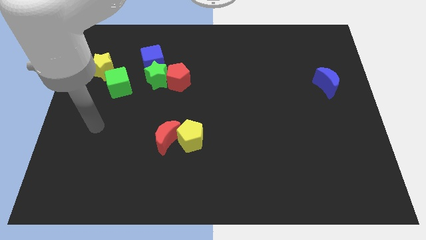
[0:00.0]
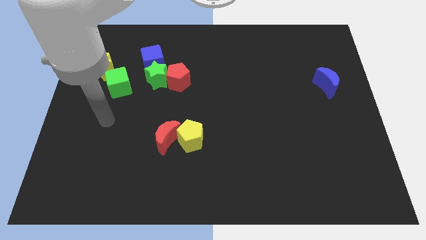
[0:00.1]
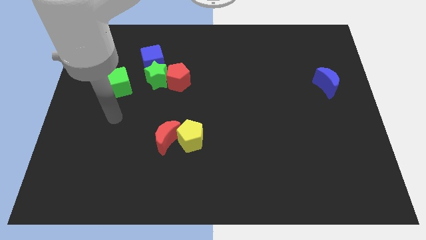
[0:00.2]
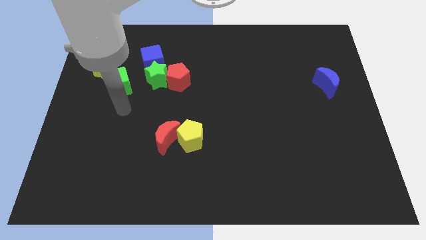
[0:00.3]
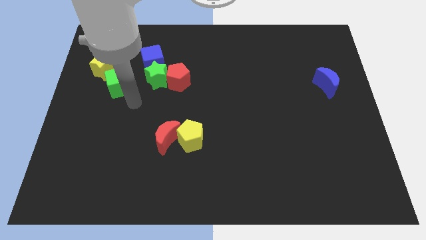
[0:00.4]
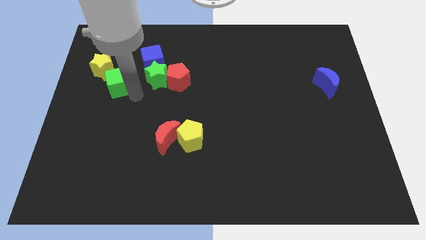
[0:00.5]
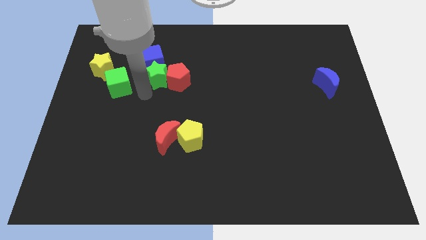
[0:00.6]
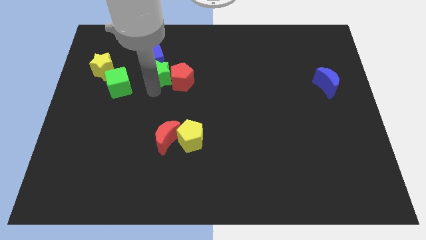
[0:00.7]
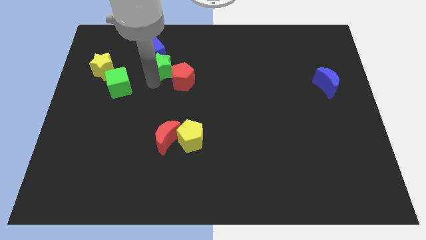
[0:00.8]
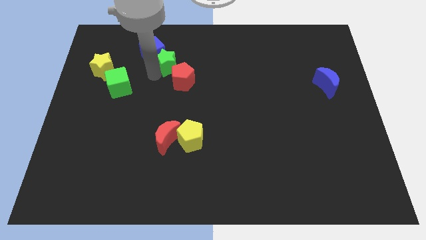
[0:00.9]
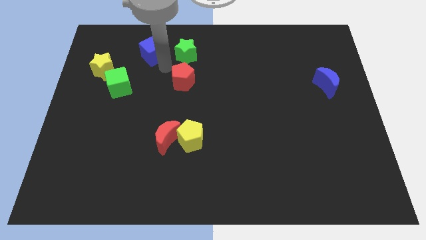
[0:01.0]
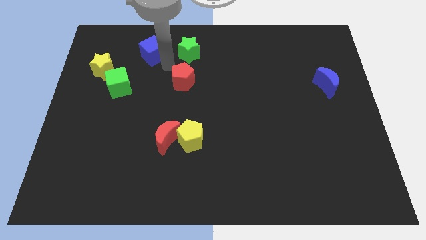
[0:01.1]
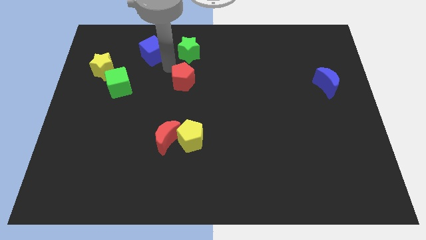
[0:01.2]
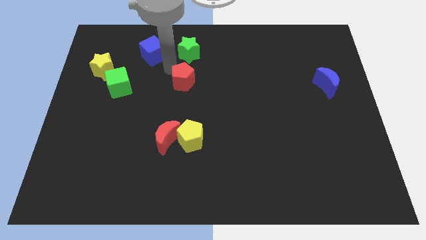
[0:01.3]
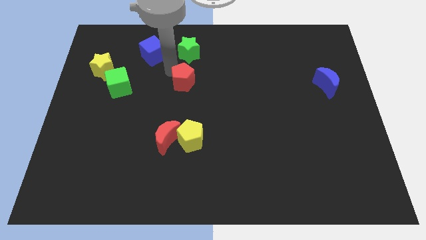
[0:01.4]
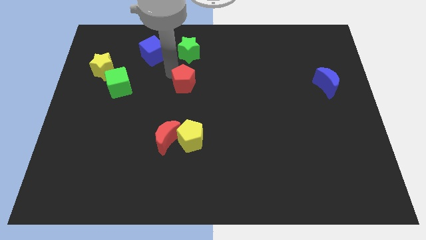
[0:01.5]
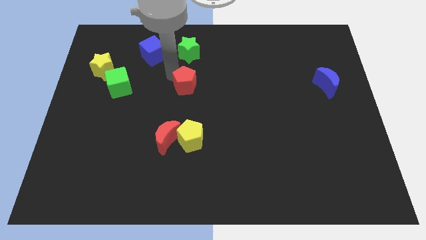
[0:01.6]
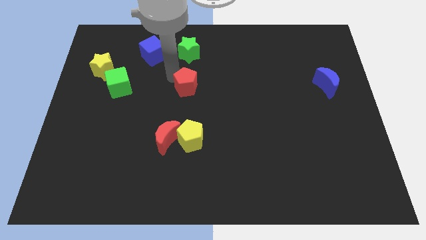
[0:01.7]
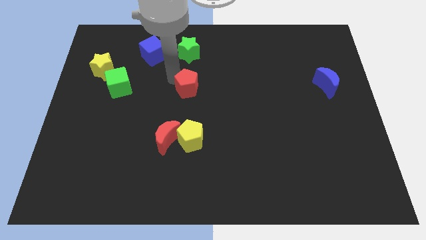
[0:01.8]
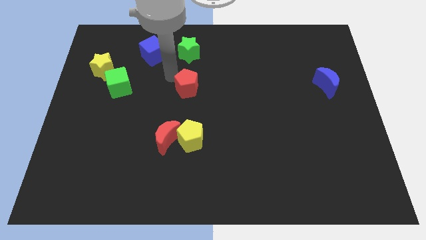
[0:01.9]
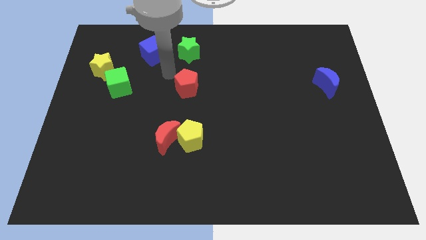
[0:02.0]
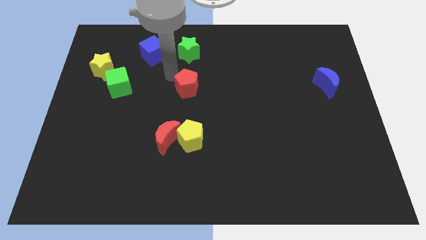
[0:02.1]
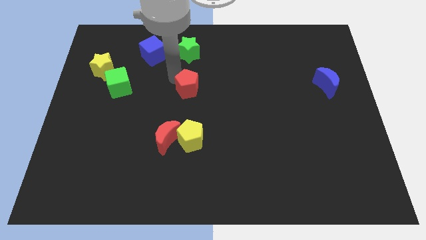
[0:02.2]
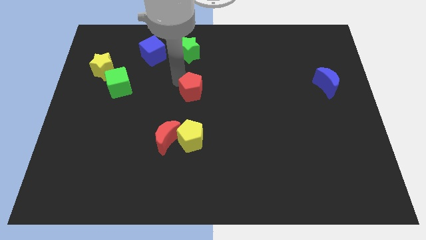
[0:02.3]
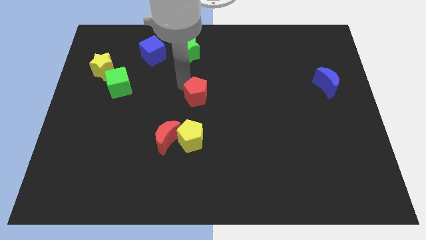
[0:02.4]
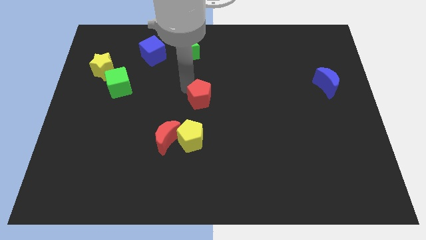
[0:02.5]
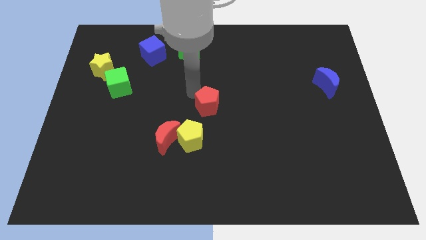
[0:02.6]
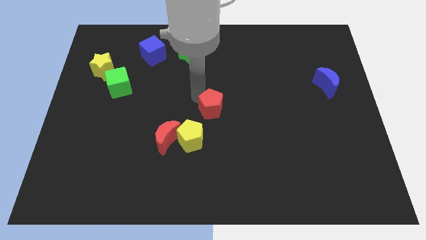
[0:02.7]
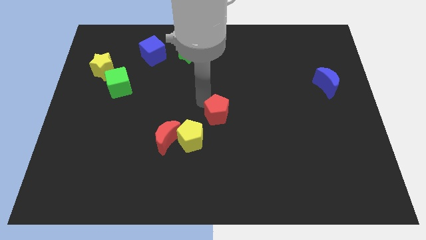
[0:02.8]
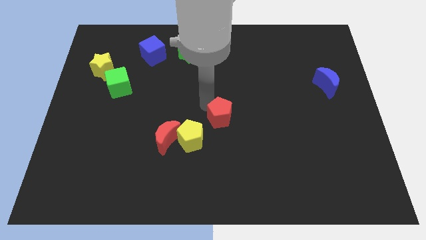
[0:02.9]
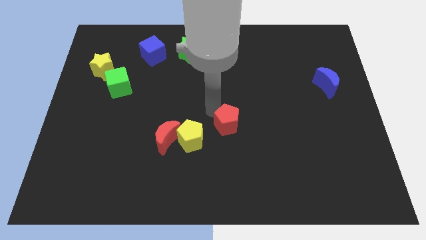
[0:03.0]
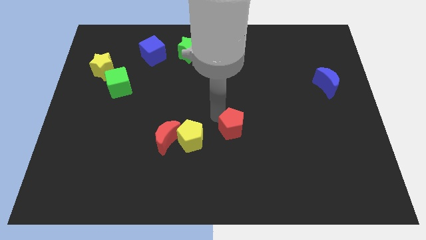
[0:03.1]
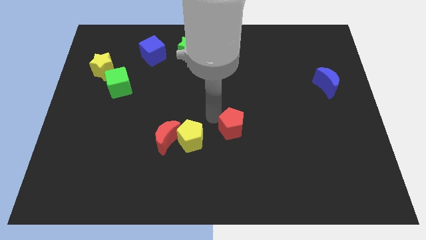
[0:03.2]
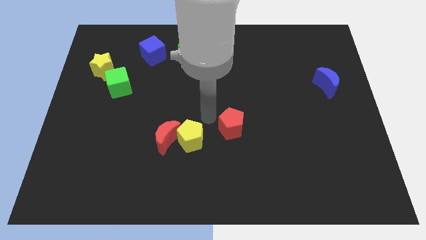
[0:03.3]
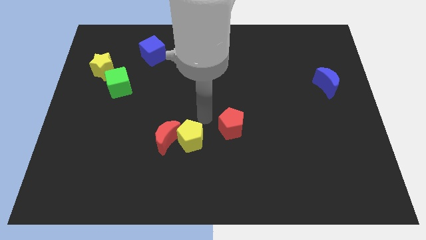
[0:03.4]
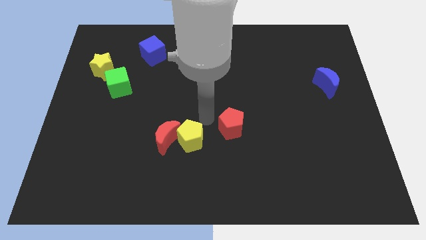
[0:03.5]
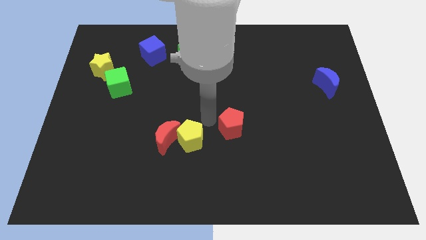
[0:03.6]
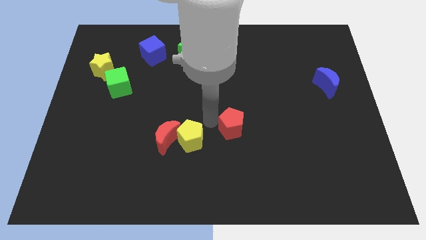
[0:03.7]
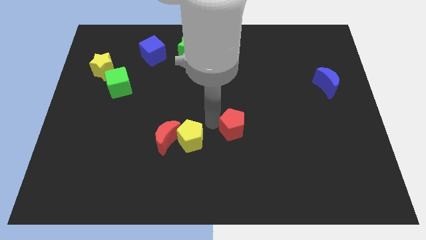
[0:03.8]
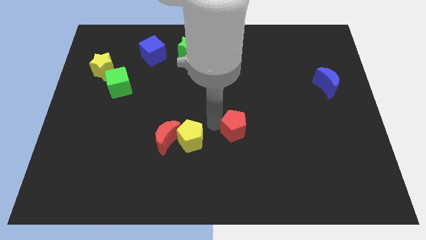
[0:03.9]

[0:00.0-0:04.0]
push the red pentagon down and to the right diagonally

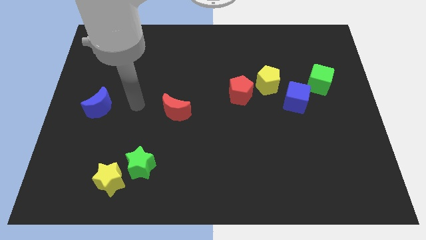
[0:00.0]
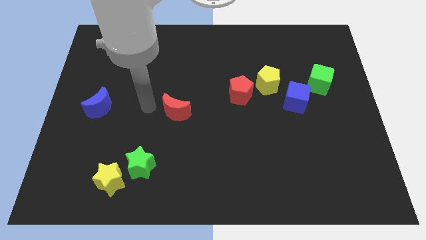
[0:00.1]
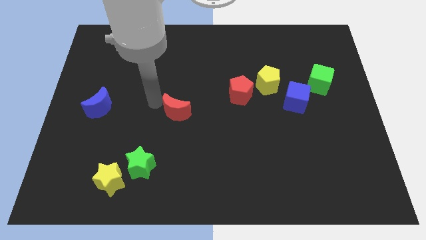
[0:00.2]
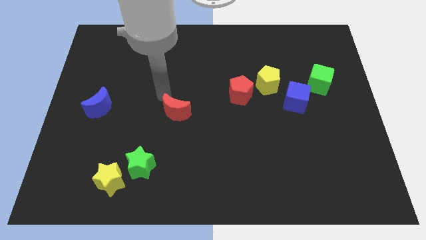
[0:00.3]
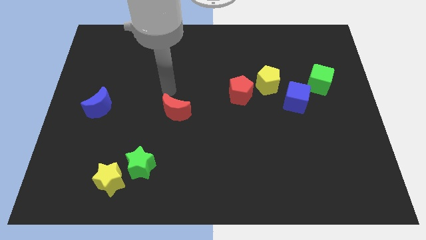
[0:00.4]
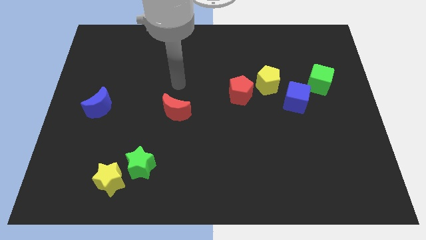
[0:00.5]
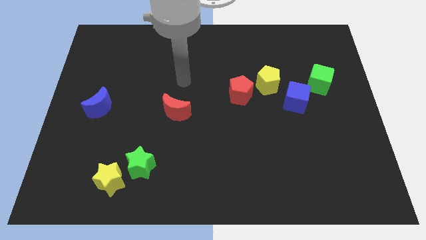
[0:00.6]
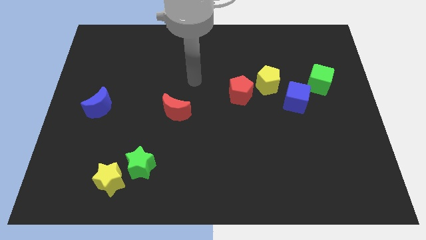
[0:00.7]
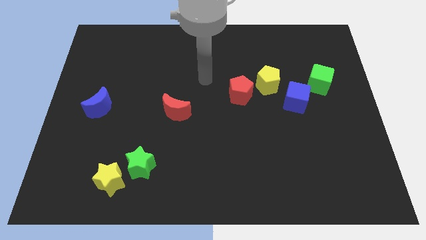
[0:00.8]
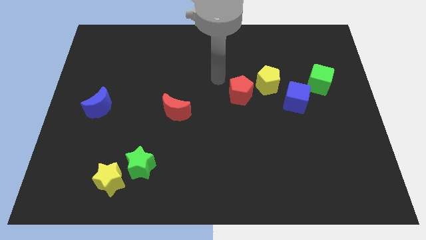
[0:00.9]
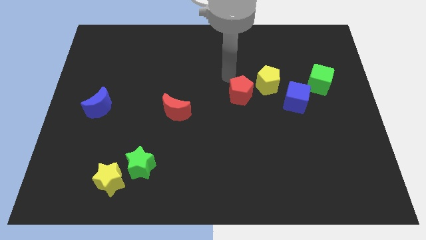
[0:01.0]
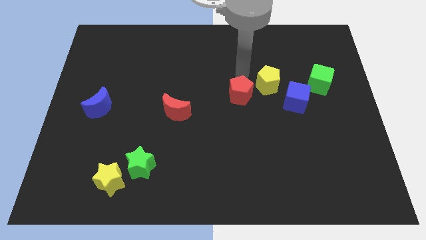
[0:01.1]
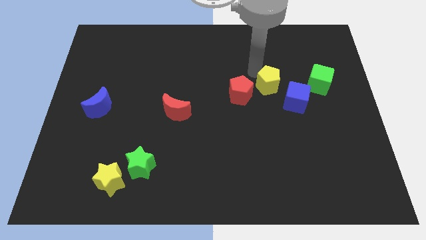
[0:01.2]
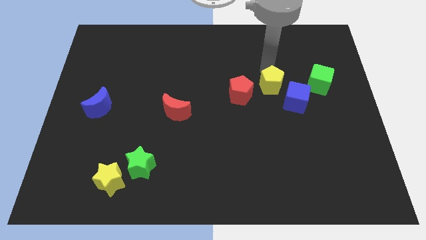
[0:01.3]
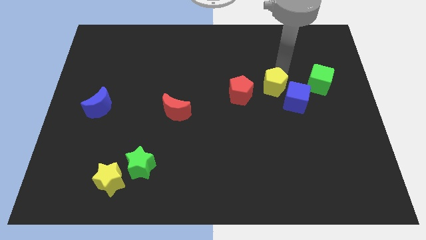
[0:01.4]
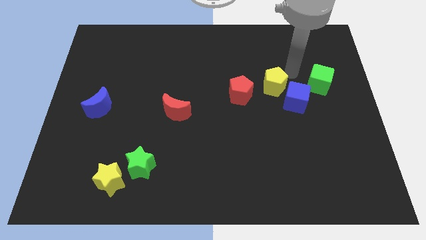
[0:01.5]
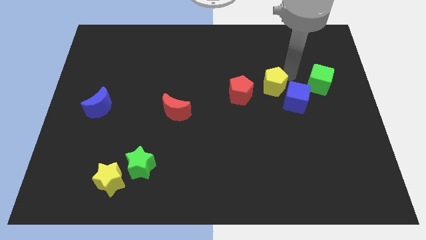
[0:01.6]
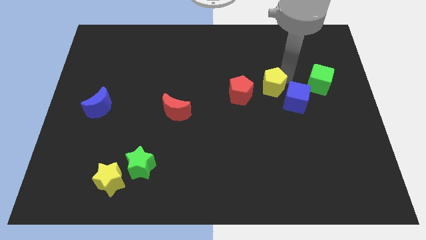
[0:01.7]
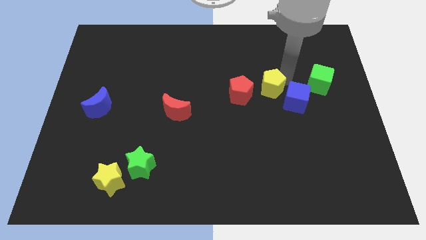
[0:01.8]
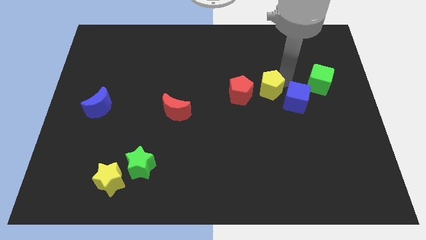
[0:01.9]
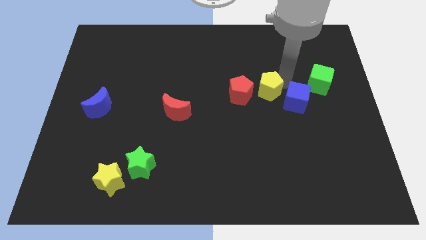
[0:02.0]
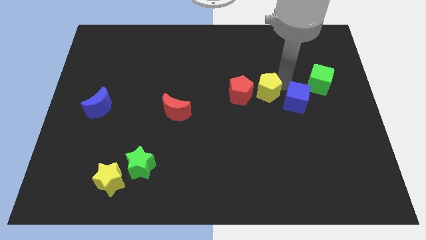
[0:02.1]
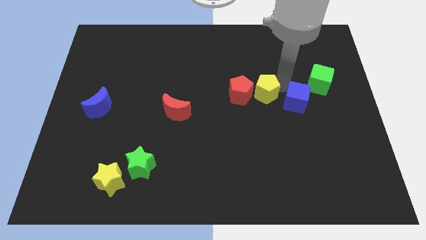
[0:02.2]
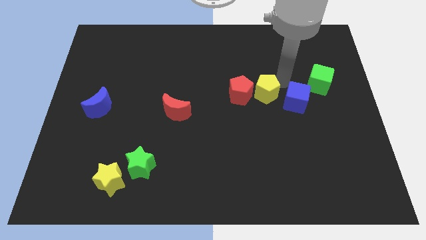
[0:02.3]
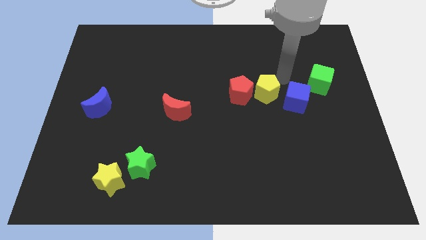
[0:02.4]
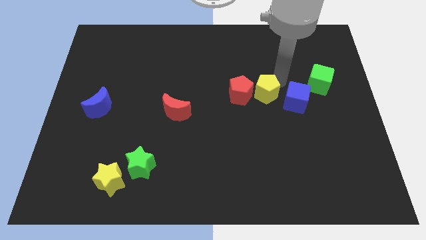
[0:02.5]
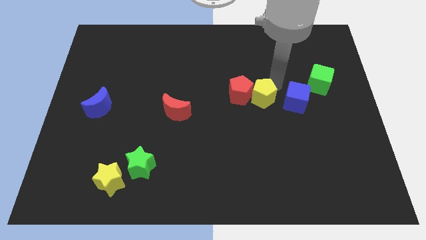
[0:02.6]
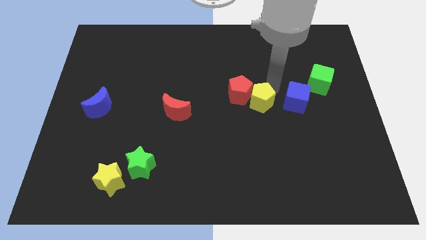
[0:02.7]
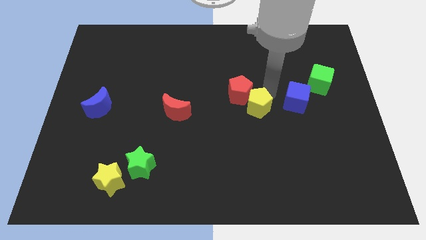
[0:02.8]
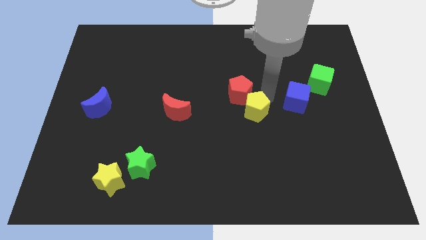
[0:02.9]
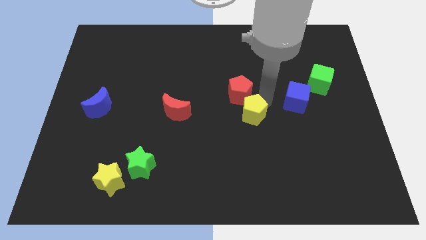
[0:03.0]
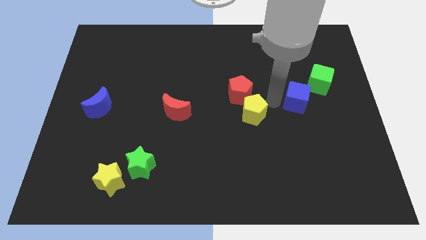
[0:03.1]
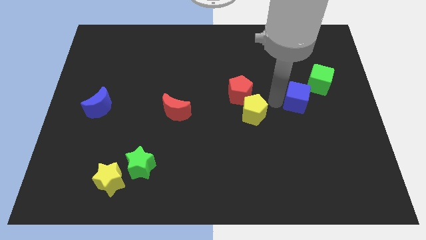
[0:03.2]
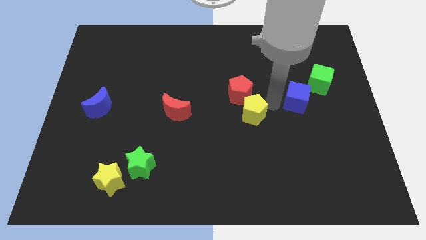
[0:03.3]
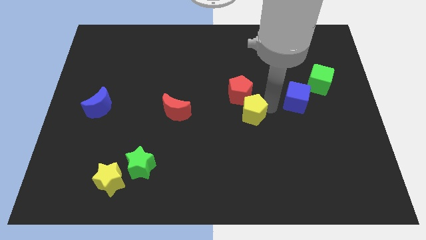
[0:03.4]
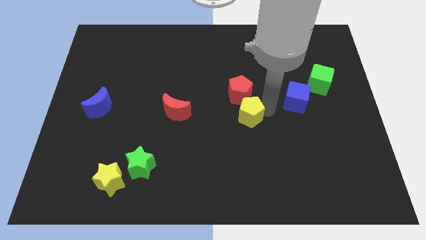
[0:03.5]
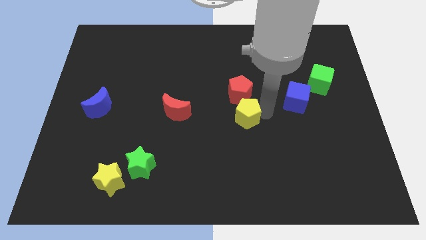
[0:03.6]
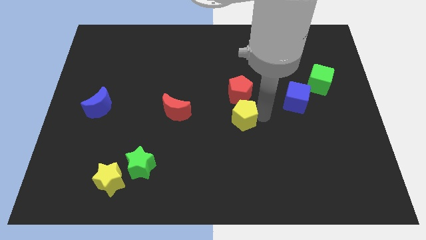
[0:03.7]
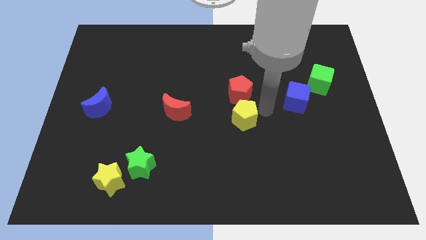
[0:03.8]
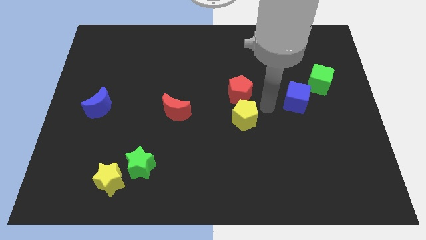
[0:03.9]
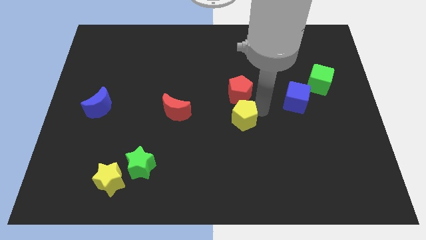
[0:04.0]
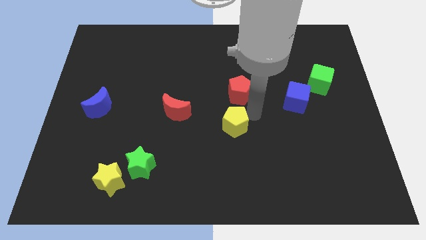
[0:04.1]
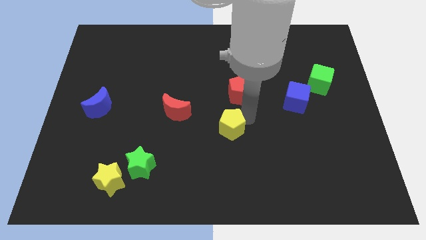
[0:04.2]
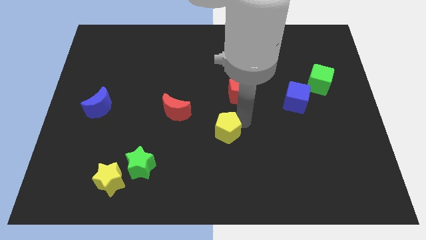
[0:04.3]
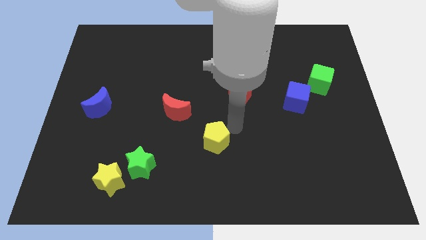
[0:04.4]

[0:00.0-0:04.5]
slide the yellow pentagon downwards and then left
